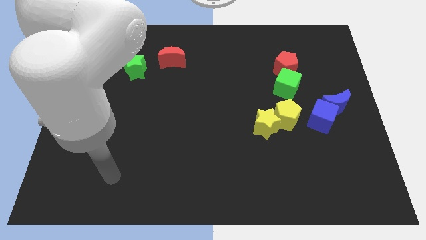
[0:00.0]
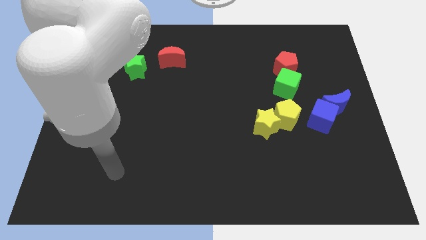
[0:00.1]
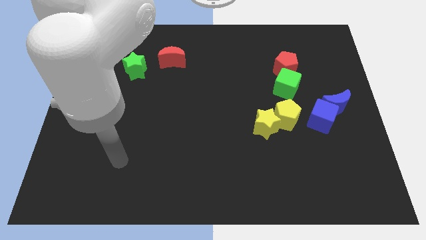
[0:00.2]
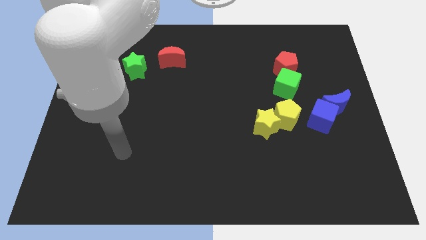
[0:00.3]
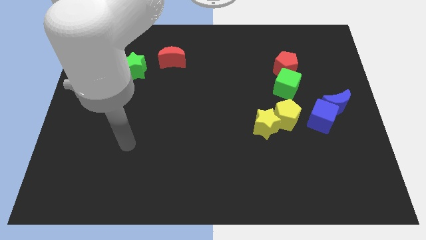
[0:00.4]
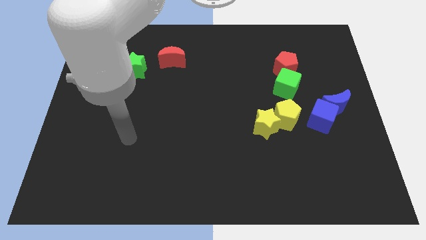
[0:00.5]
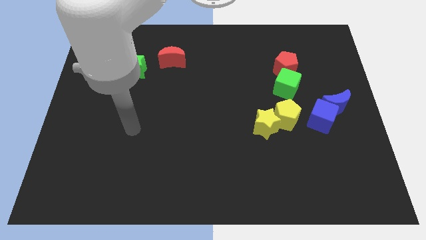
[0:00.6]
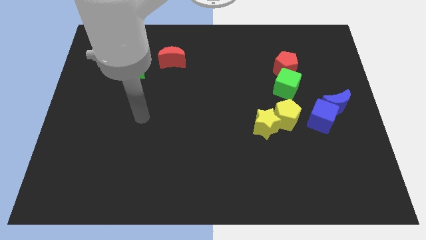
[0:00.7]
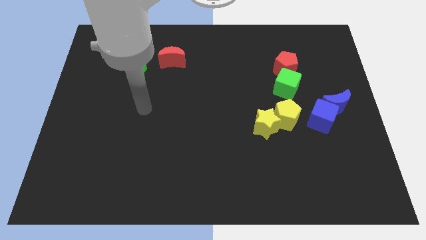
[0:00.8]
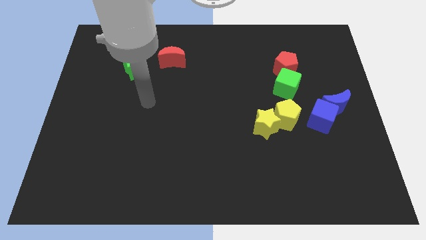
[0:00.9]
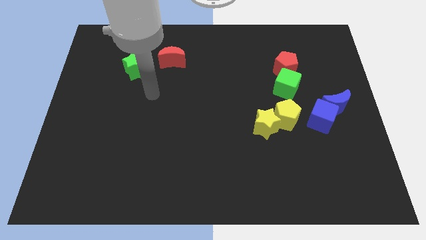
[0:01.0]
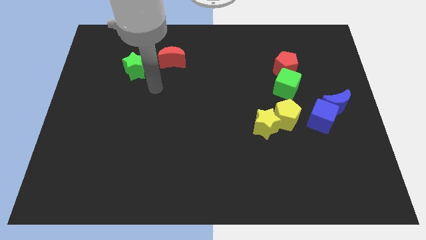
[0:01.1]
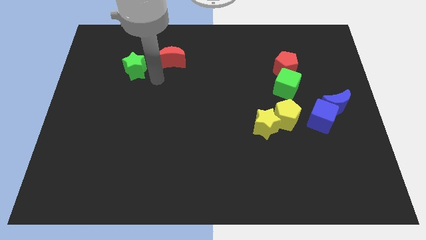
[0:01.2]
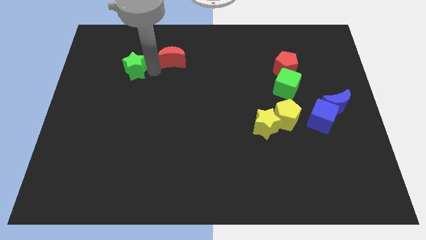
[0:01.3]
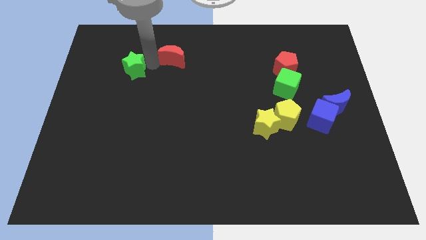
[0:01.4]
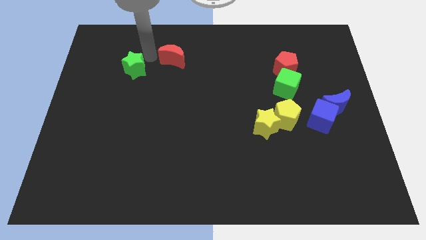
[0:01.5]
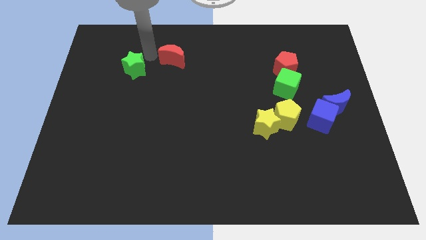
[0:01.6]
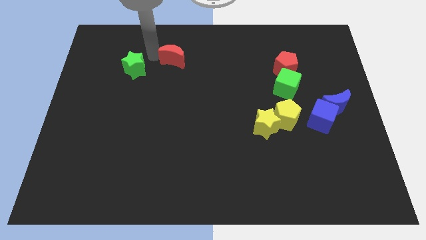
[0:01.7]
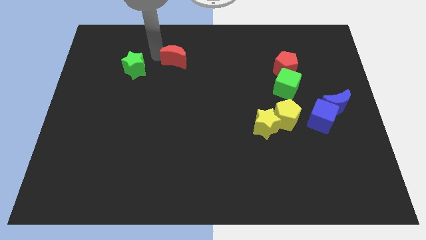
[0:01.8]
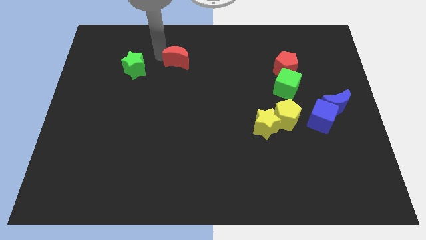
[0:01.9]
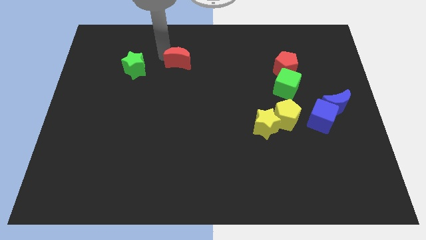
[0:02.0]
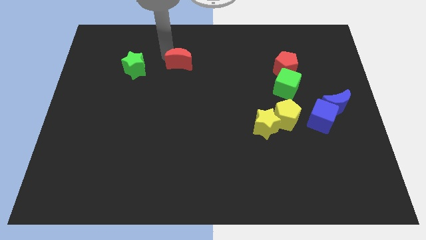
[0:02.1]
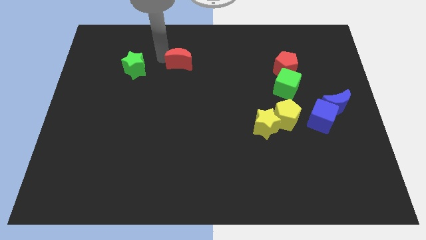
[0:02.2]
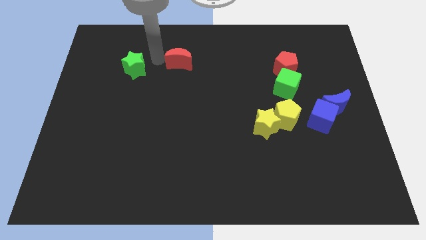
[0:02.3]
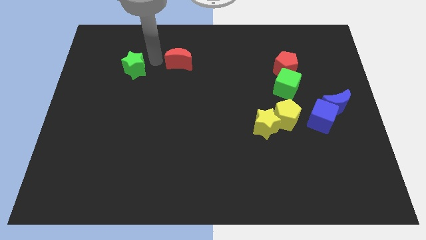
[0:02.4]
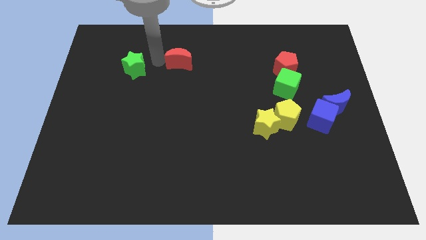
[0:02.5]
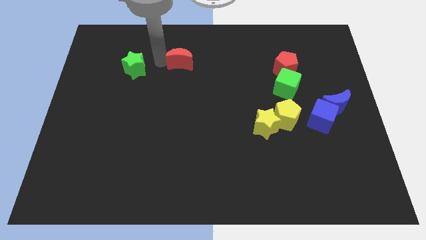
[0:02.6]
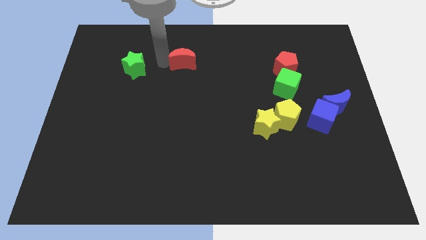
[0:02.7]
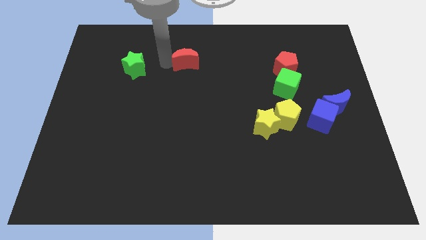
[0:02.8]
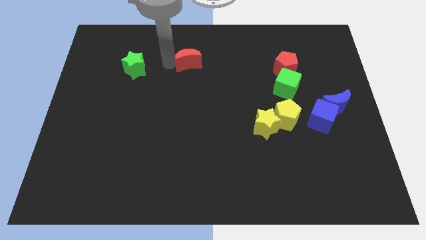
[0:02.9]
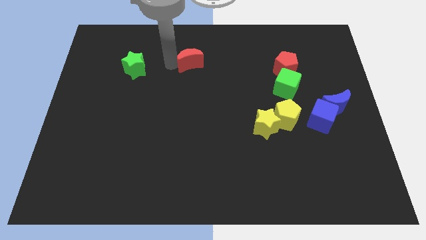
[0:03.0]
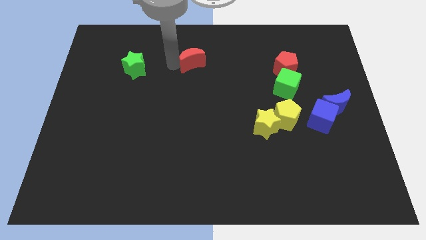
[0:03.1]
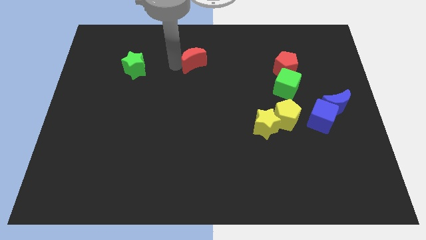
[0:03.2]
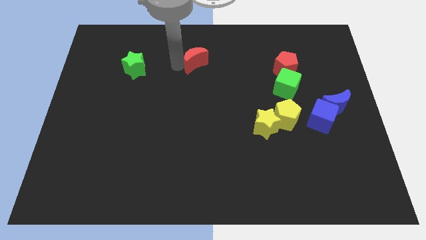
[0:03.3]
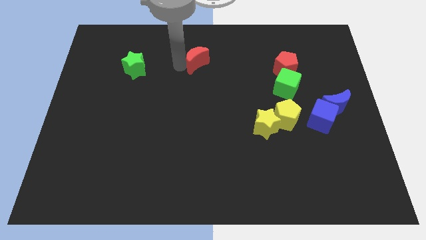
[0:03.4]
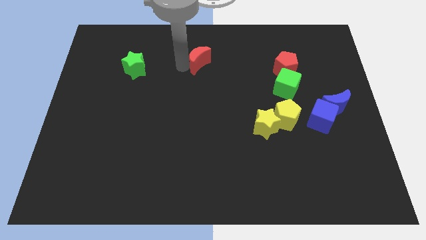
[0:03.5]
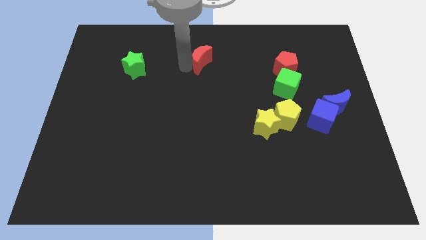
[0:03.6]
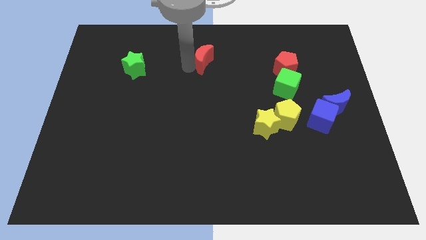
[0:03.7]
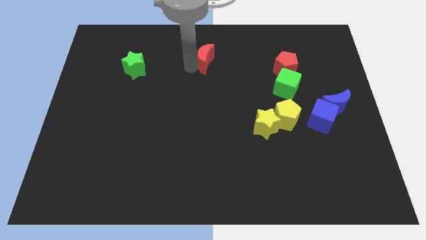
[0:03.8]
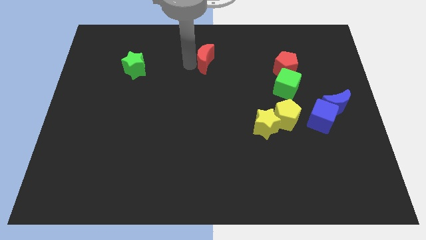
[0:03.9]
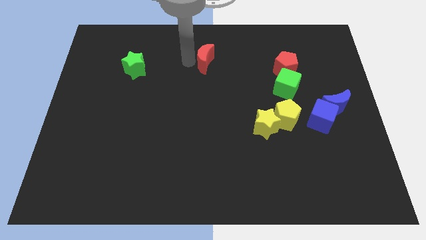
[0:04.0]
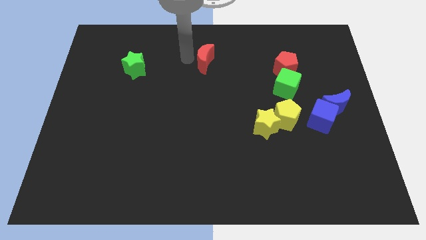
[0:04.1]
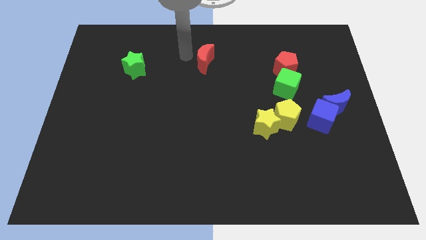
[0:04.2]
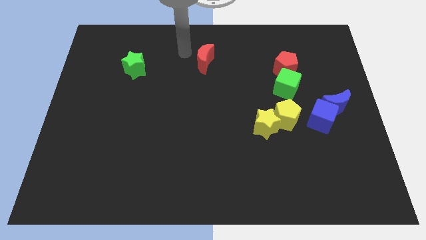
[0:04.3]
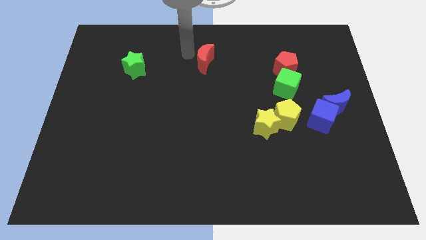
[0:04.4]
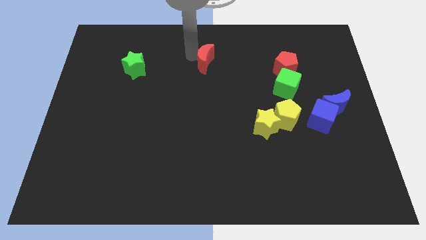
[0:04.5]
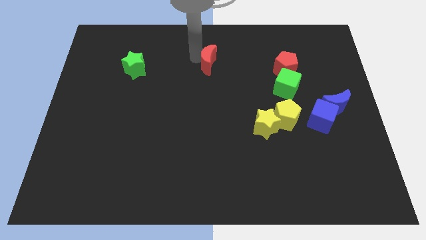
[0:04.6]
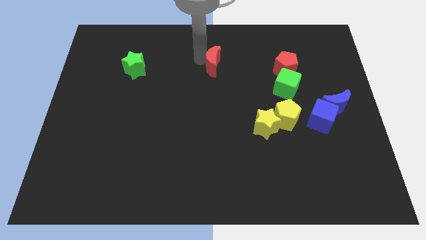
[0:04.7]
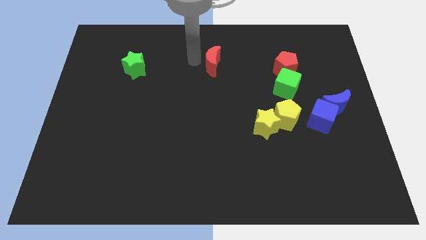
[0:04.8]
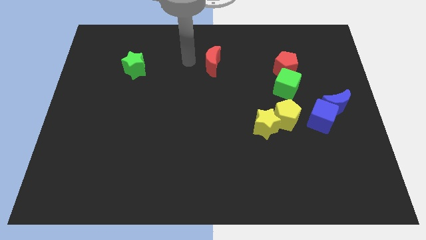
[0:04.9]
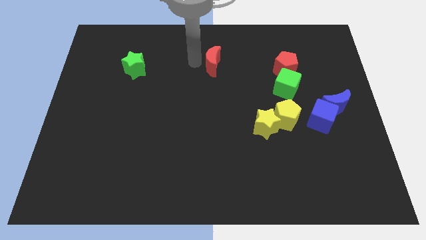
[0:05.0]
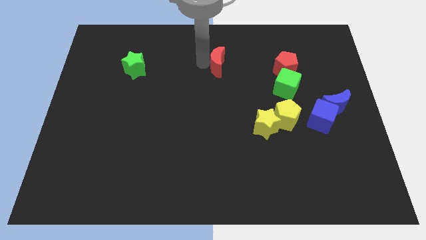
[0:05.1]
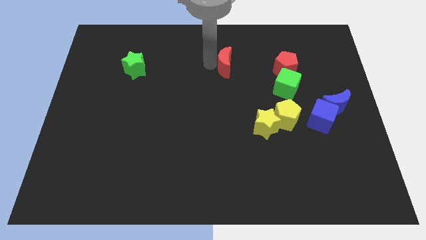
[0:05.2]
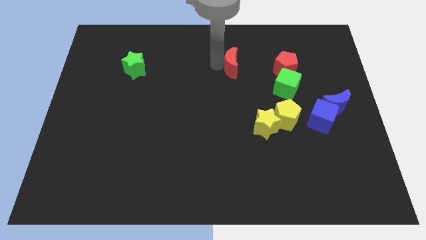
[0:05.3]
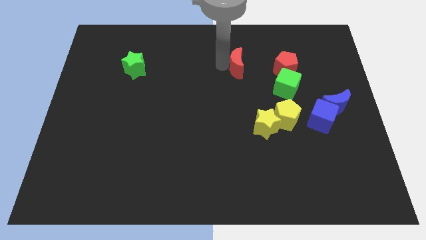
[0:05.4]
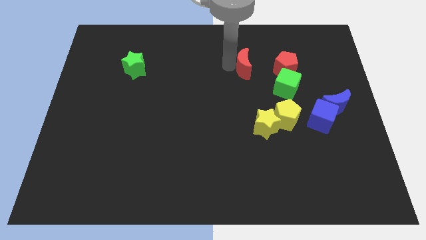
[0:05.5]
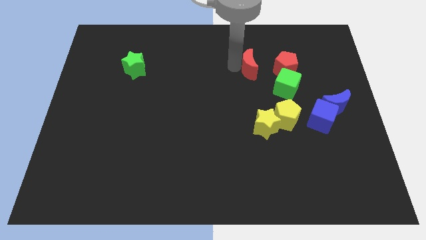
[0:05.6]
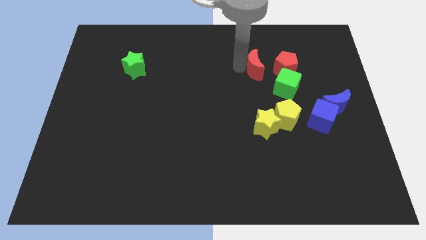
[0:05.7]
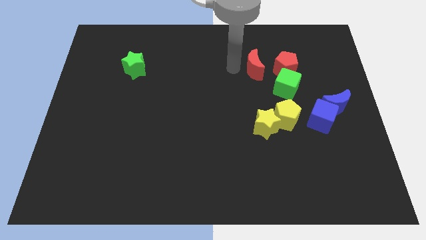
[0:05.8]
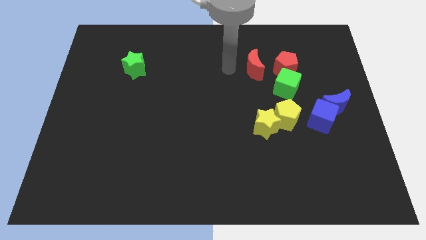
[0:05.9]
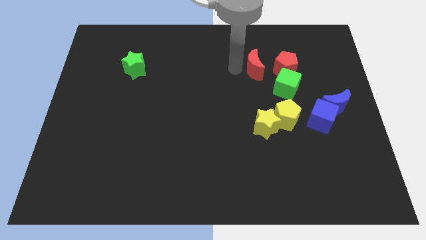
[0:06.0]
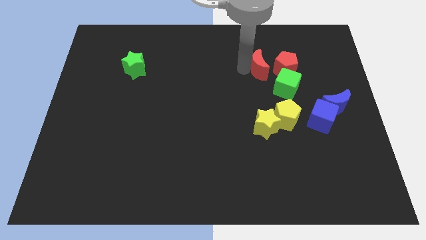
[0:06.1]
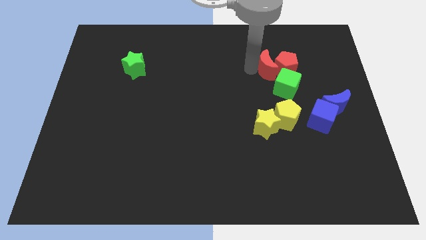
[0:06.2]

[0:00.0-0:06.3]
move the red moon to the red pentagon

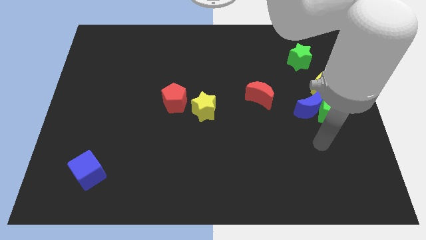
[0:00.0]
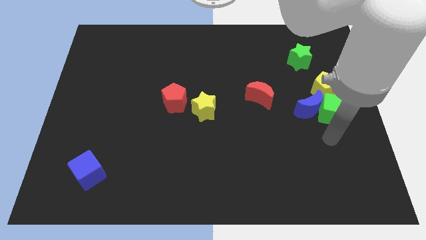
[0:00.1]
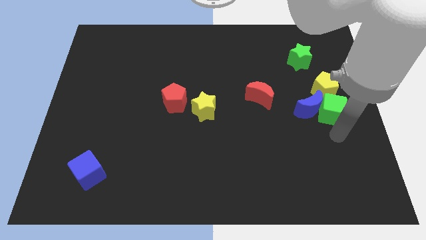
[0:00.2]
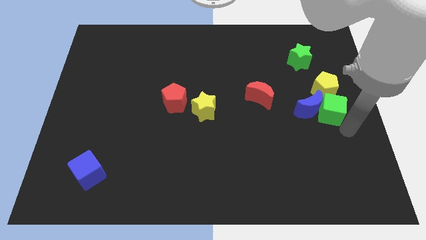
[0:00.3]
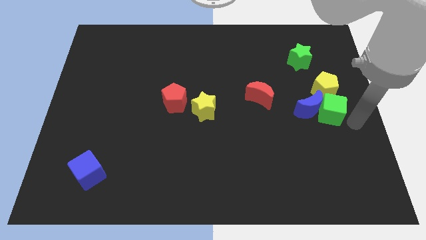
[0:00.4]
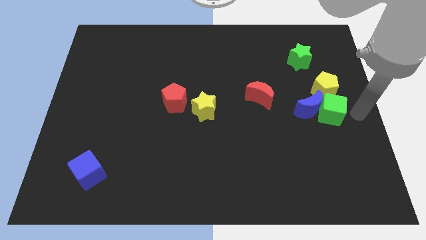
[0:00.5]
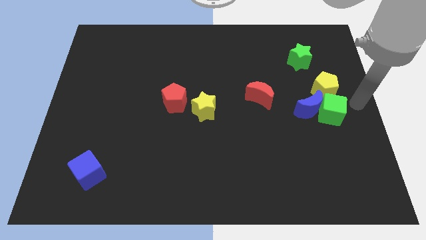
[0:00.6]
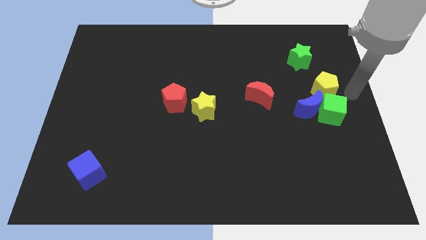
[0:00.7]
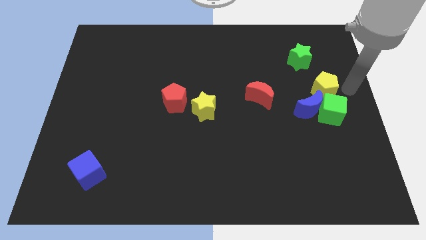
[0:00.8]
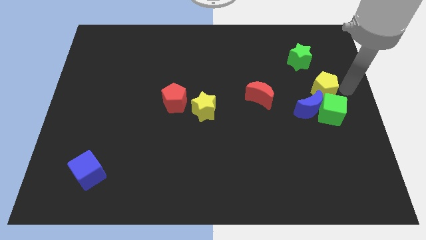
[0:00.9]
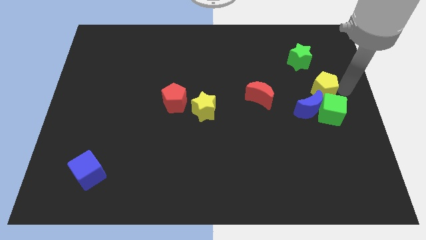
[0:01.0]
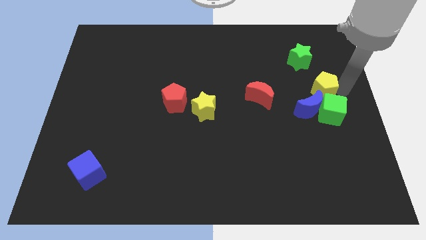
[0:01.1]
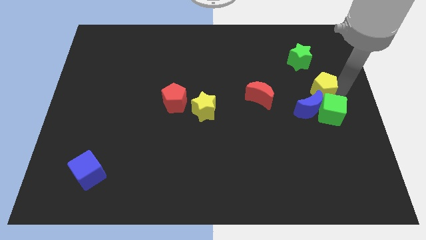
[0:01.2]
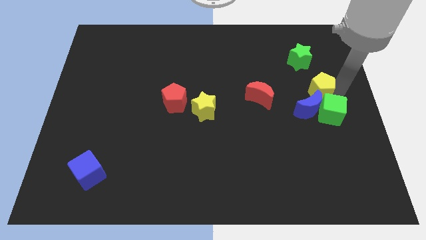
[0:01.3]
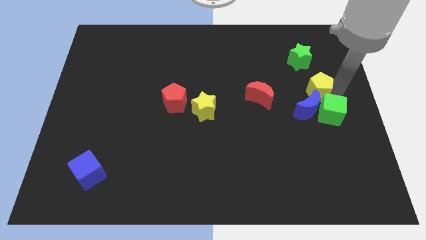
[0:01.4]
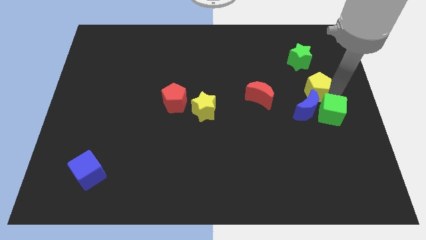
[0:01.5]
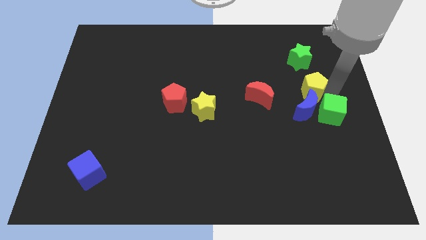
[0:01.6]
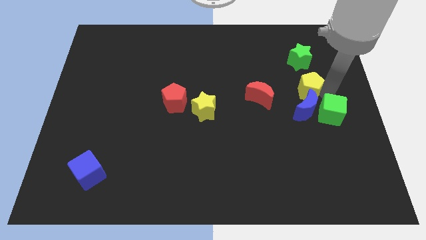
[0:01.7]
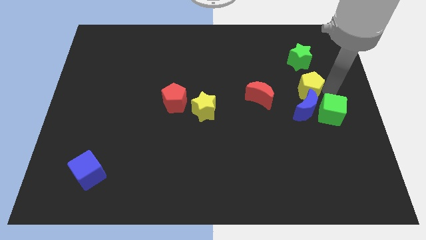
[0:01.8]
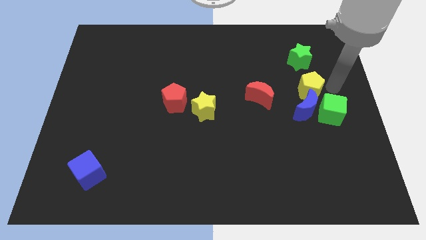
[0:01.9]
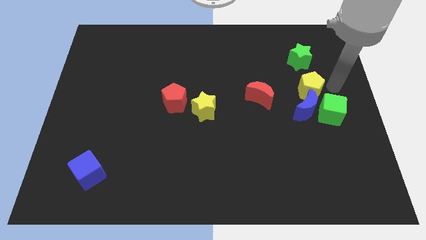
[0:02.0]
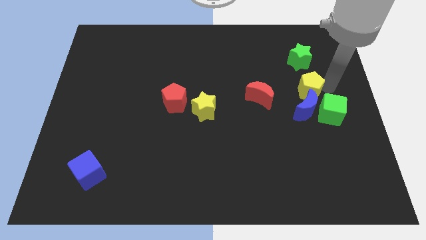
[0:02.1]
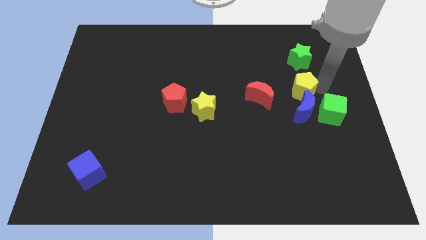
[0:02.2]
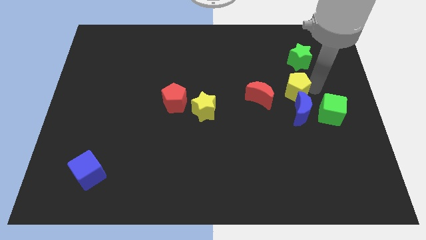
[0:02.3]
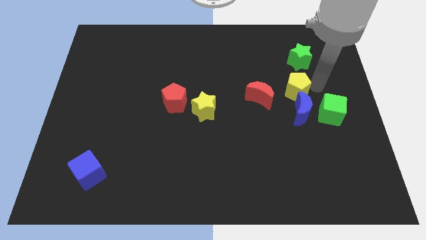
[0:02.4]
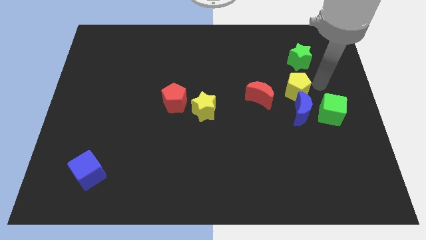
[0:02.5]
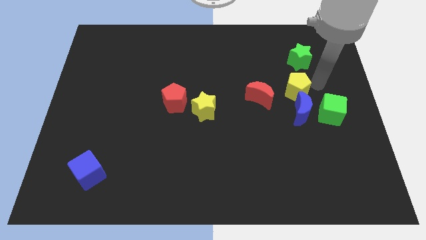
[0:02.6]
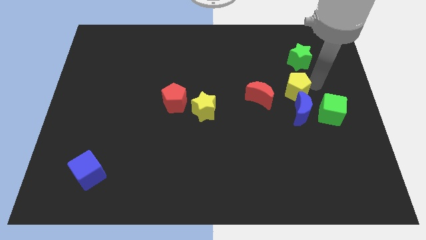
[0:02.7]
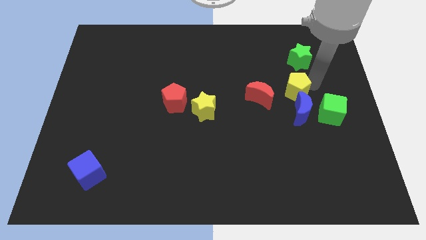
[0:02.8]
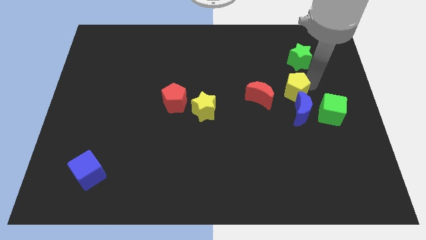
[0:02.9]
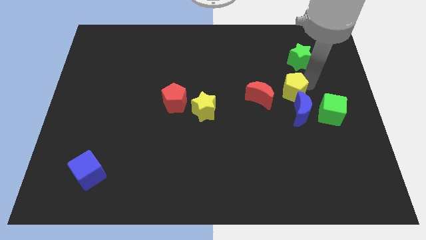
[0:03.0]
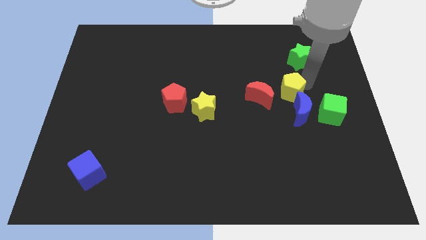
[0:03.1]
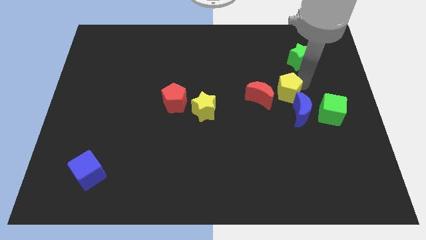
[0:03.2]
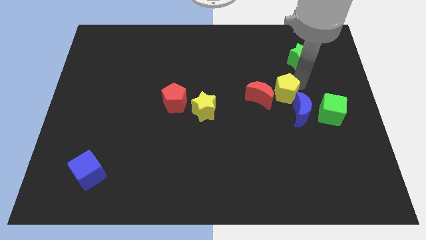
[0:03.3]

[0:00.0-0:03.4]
put the yellow pentagon to the red moon
